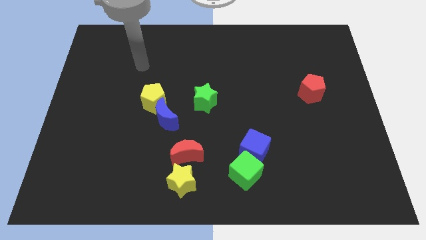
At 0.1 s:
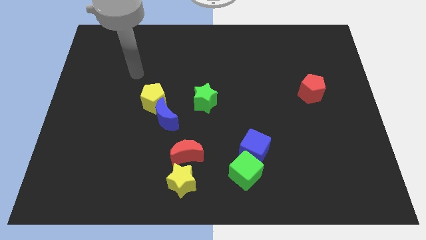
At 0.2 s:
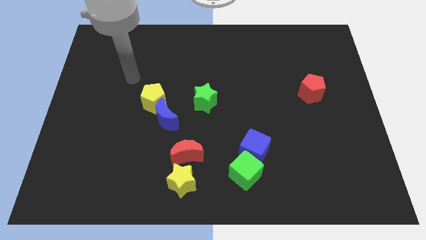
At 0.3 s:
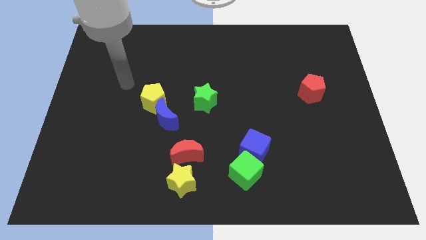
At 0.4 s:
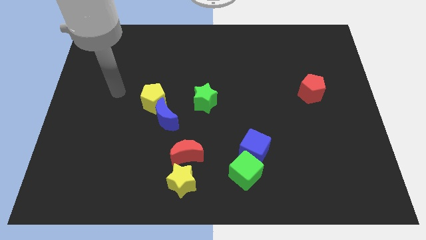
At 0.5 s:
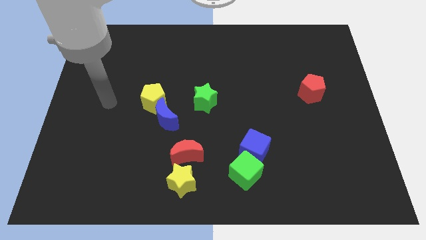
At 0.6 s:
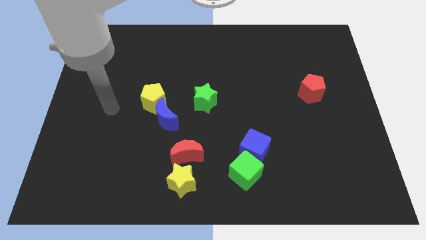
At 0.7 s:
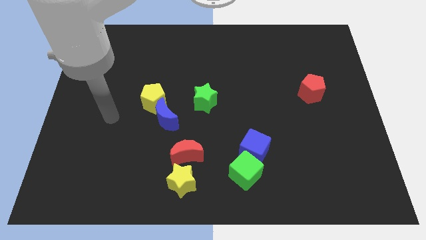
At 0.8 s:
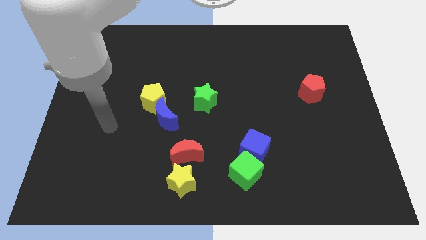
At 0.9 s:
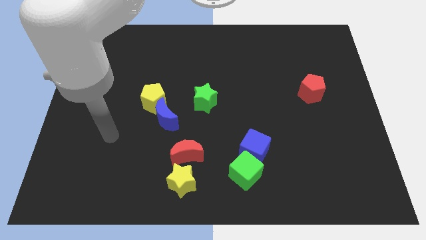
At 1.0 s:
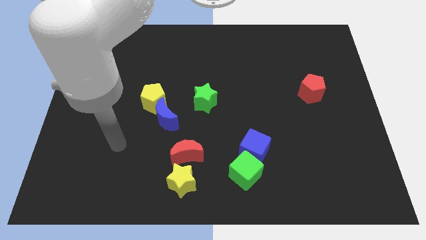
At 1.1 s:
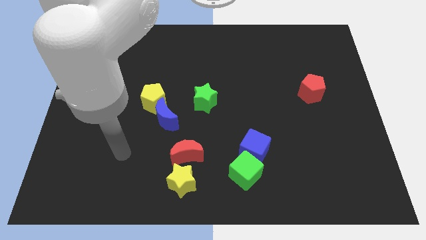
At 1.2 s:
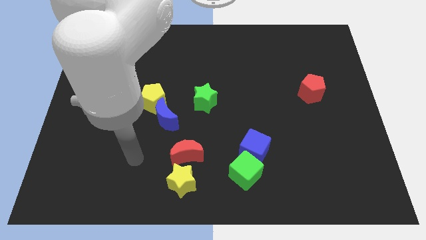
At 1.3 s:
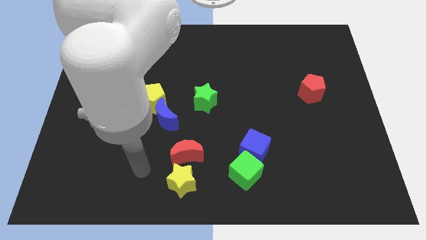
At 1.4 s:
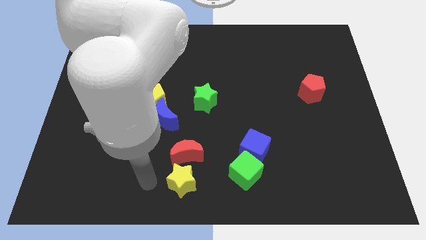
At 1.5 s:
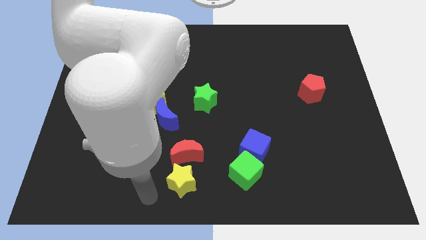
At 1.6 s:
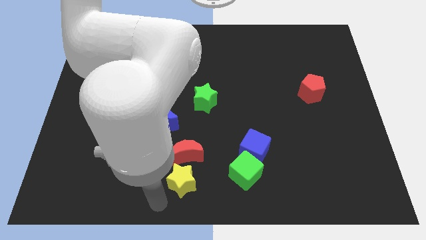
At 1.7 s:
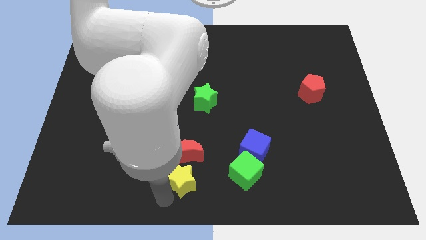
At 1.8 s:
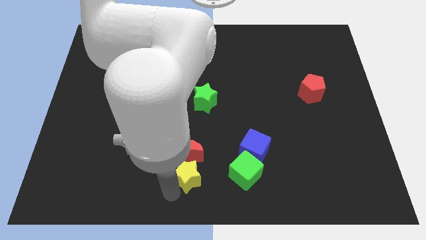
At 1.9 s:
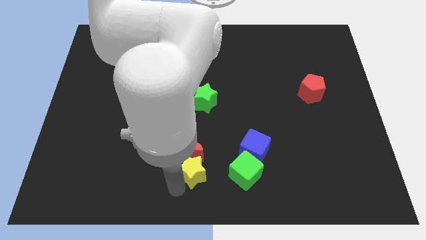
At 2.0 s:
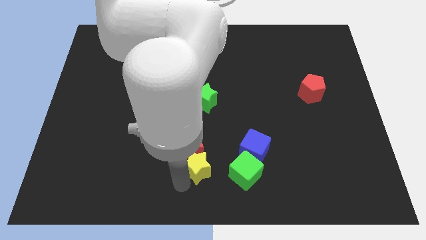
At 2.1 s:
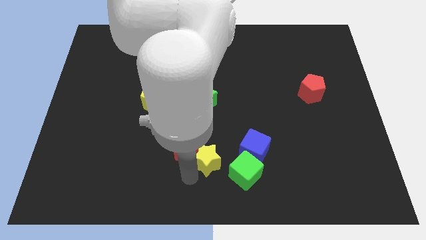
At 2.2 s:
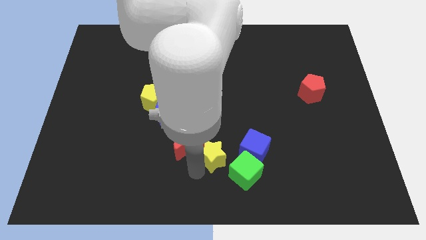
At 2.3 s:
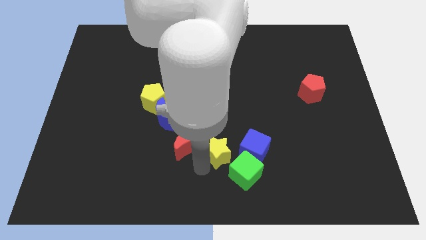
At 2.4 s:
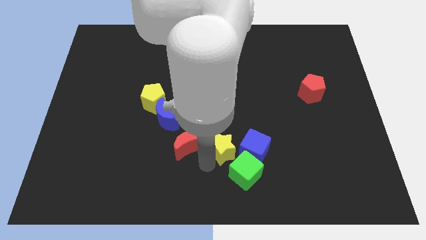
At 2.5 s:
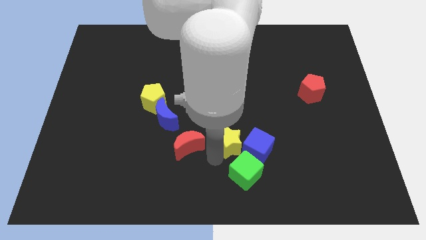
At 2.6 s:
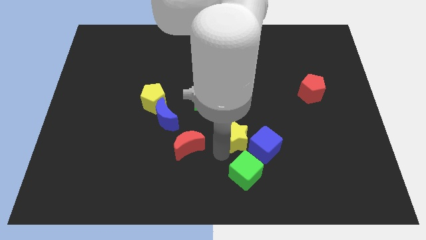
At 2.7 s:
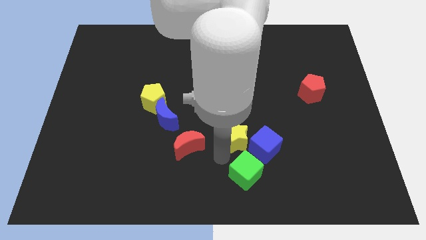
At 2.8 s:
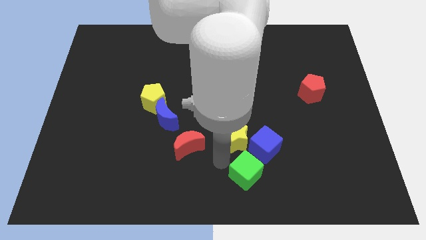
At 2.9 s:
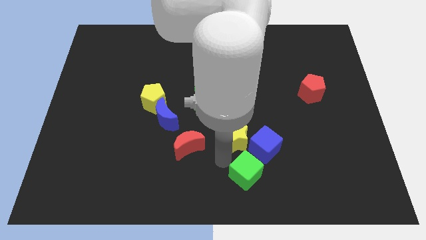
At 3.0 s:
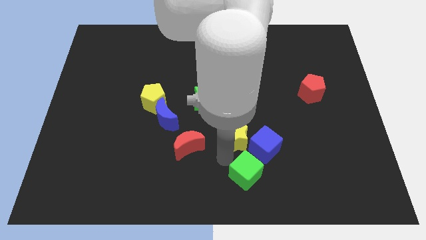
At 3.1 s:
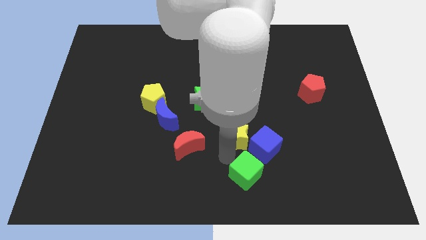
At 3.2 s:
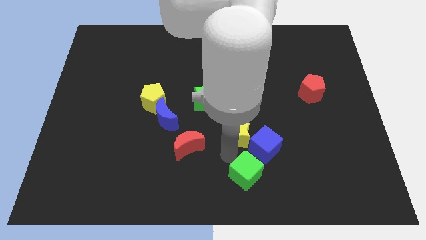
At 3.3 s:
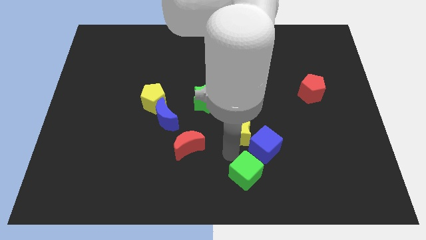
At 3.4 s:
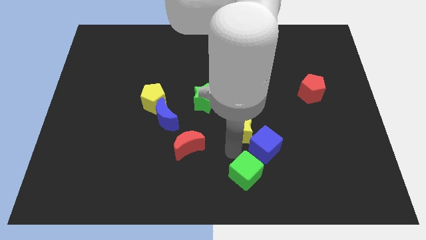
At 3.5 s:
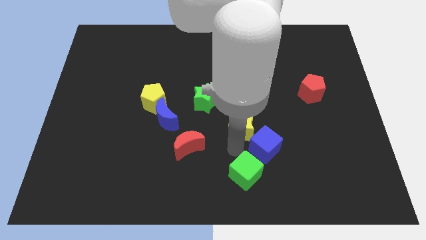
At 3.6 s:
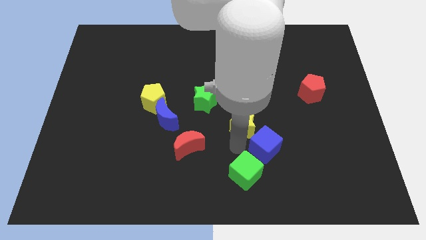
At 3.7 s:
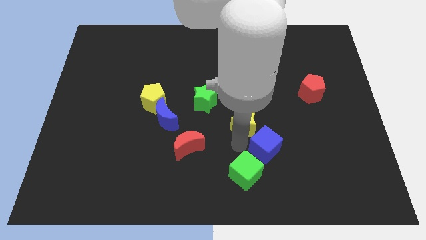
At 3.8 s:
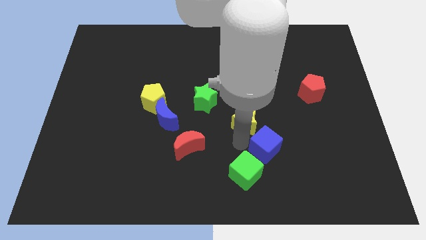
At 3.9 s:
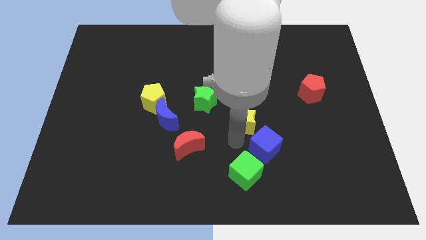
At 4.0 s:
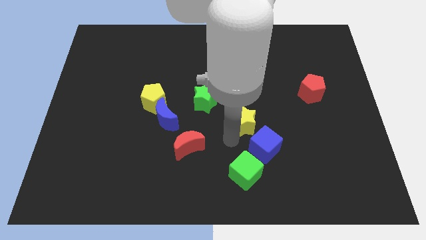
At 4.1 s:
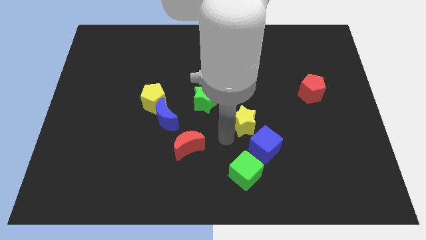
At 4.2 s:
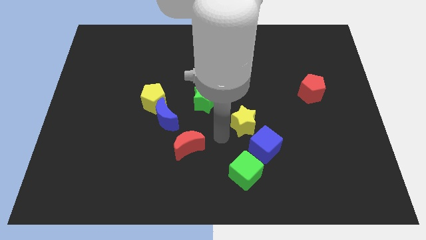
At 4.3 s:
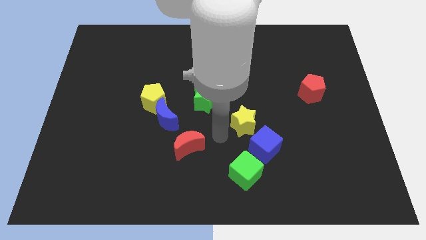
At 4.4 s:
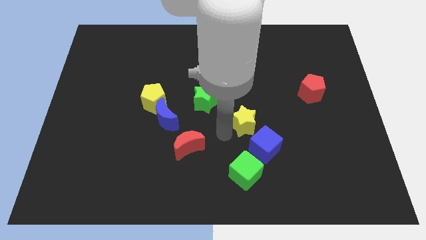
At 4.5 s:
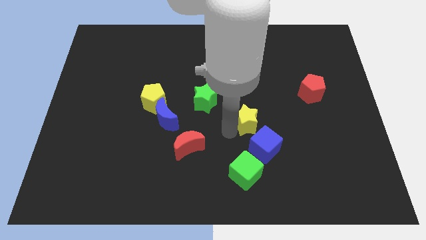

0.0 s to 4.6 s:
slide the yellow star up and to the right

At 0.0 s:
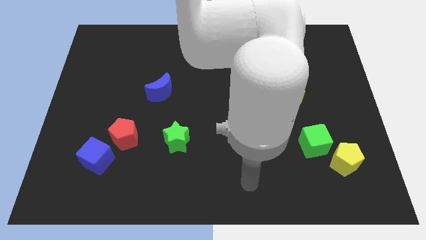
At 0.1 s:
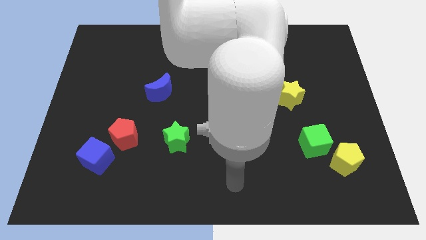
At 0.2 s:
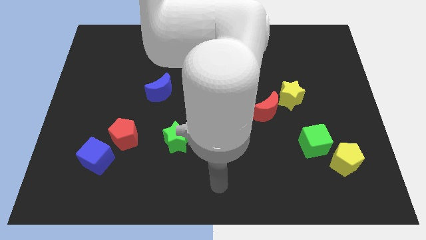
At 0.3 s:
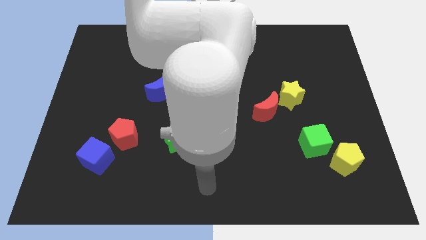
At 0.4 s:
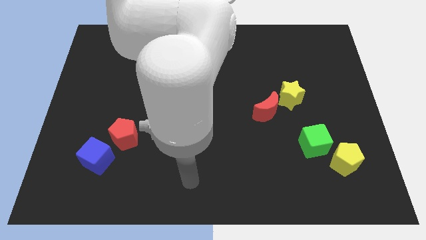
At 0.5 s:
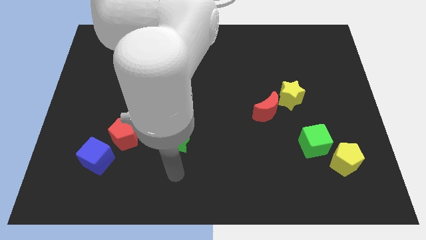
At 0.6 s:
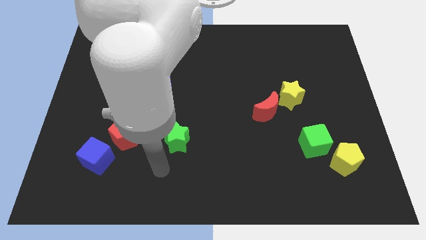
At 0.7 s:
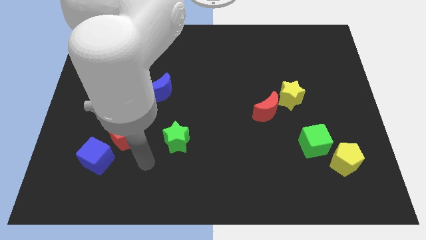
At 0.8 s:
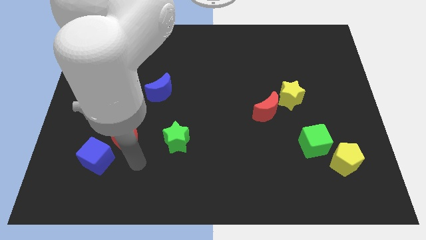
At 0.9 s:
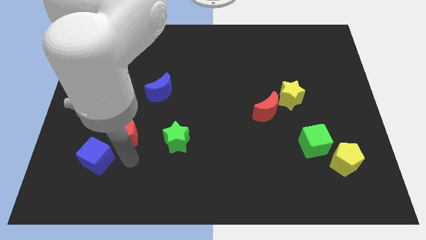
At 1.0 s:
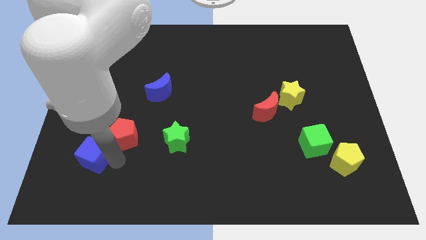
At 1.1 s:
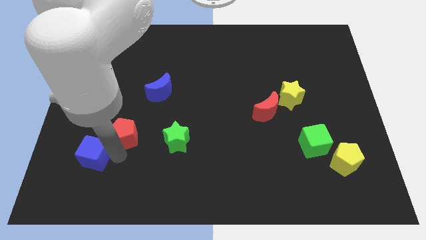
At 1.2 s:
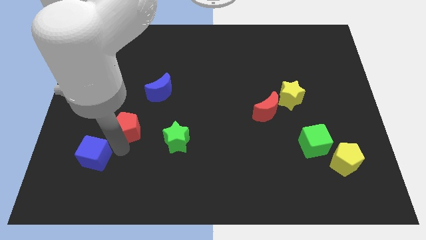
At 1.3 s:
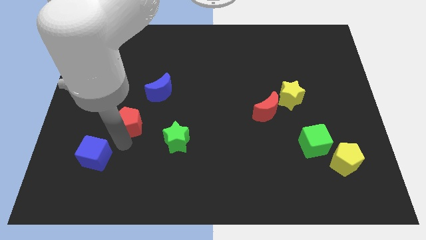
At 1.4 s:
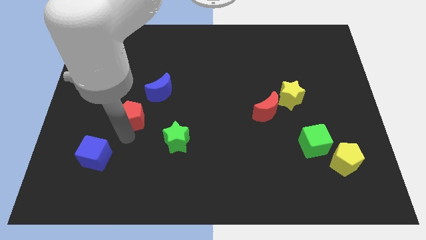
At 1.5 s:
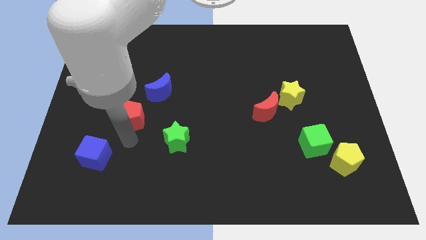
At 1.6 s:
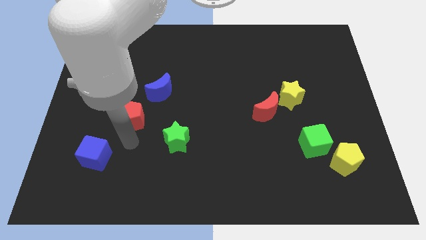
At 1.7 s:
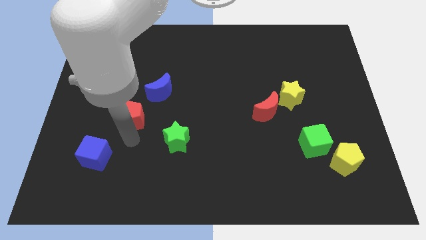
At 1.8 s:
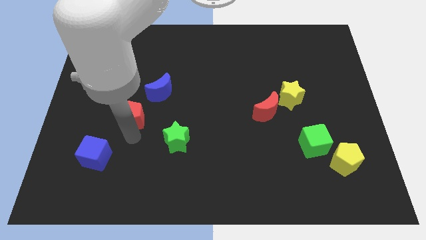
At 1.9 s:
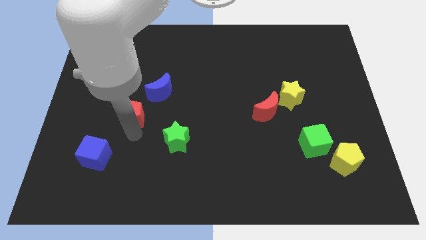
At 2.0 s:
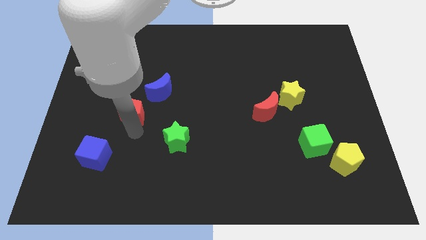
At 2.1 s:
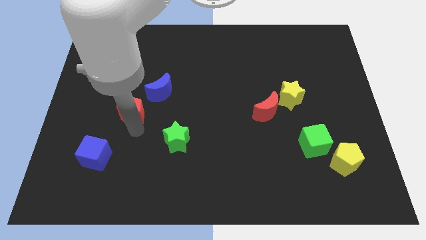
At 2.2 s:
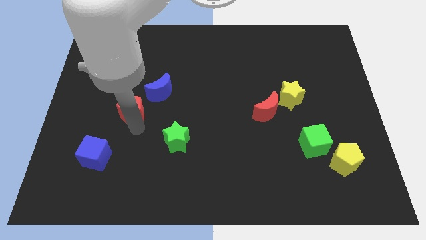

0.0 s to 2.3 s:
slightly push the red pentagon up

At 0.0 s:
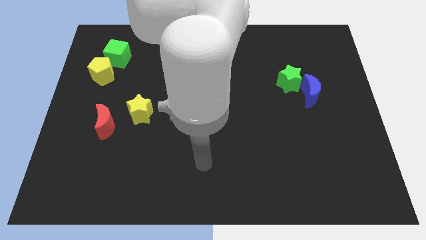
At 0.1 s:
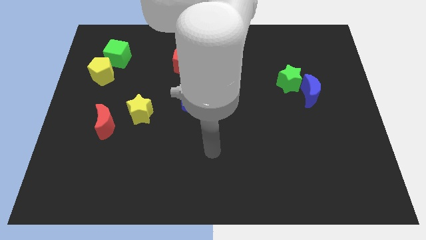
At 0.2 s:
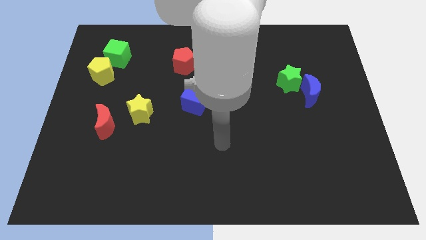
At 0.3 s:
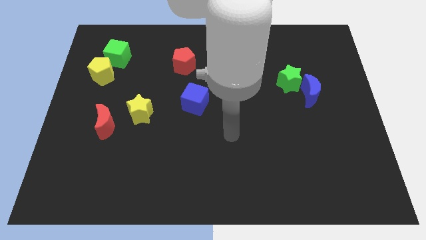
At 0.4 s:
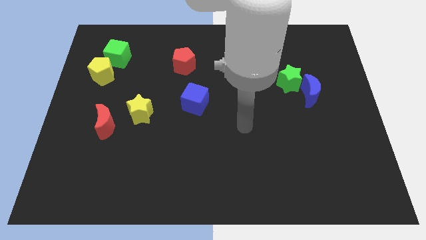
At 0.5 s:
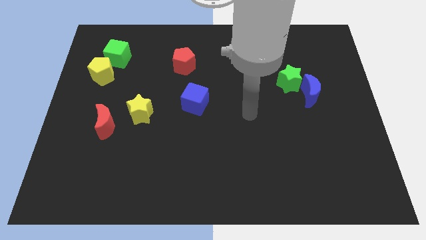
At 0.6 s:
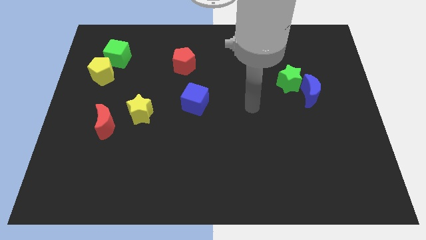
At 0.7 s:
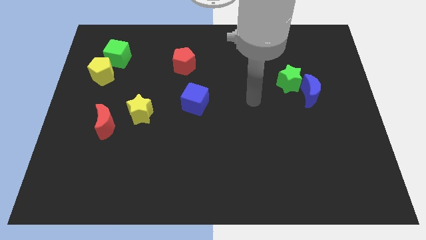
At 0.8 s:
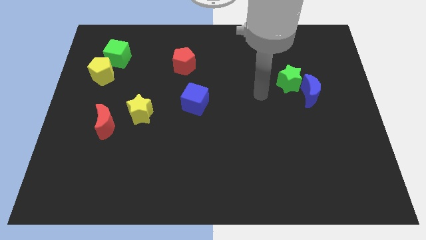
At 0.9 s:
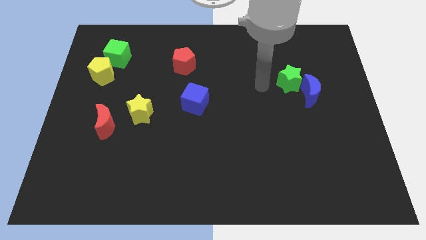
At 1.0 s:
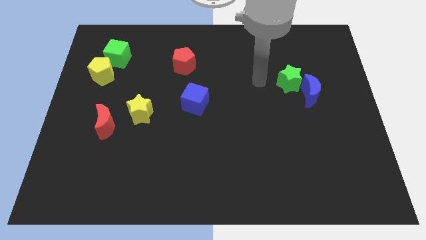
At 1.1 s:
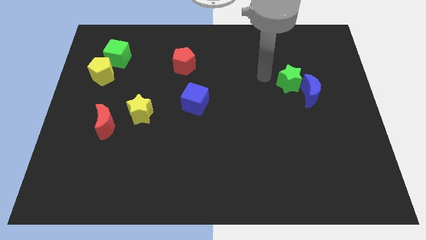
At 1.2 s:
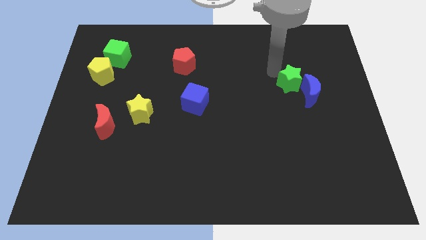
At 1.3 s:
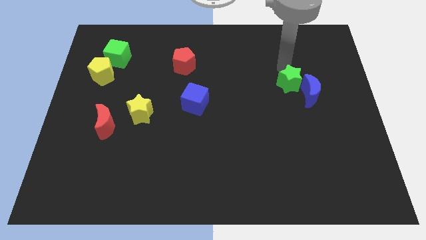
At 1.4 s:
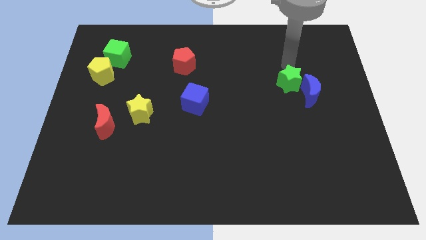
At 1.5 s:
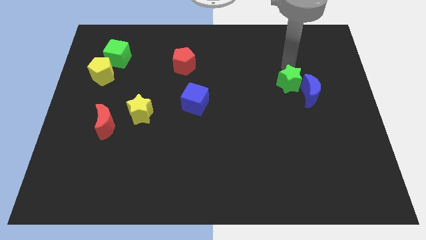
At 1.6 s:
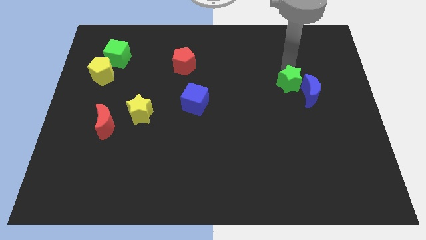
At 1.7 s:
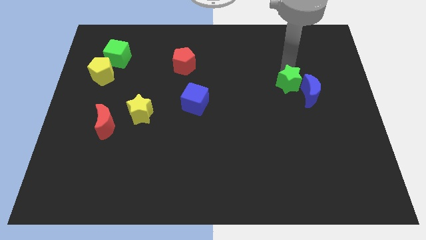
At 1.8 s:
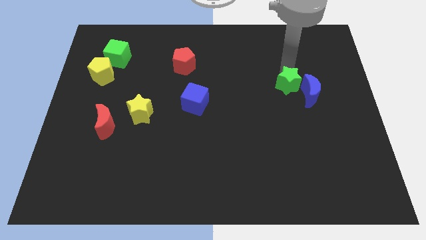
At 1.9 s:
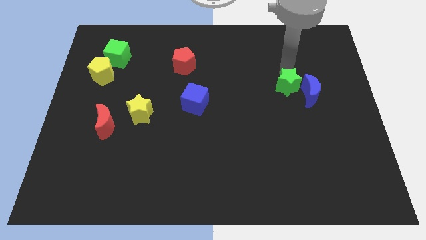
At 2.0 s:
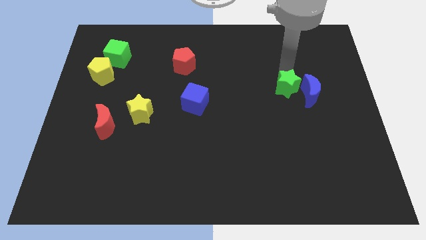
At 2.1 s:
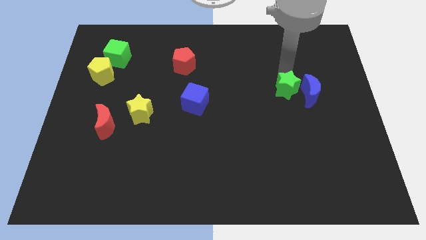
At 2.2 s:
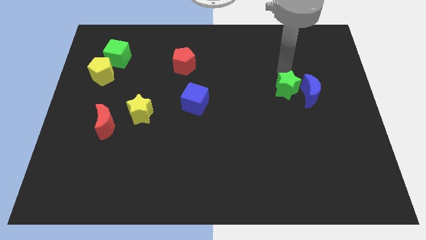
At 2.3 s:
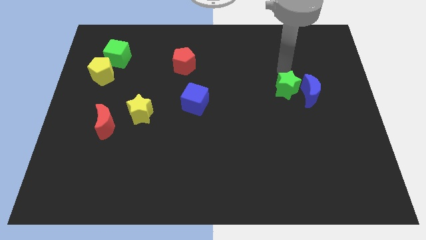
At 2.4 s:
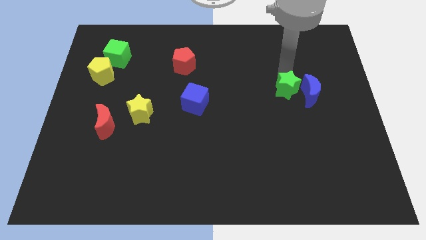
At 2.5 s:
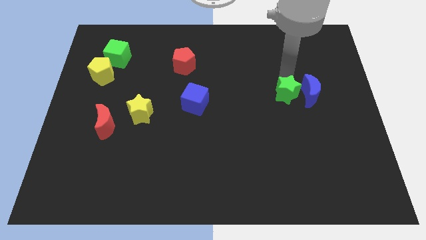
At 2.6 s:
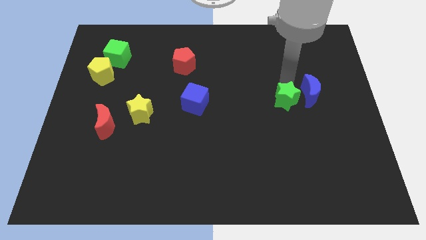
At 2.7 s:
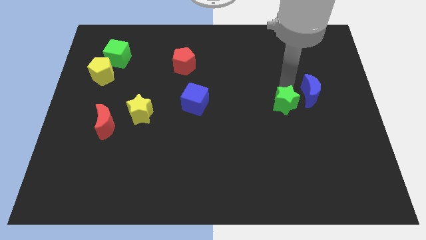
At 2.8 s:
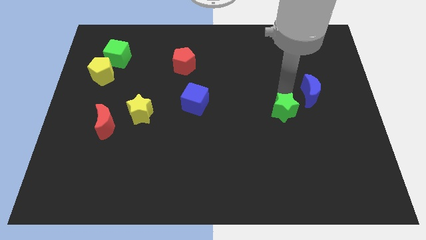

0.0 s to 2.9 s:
slightly push the green star down
